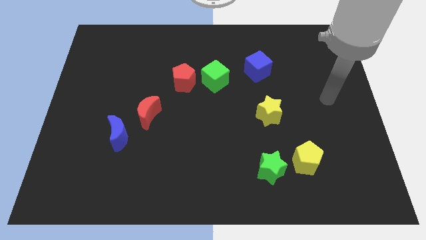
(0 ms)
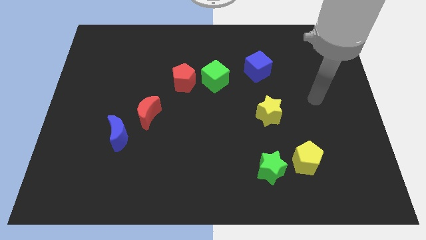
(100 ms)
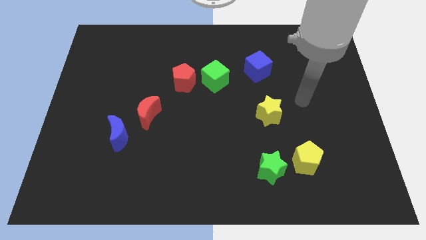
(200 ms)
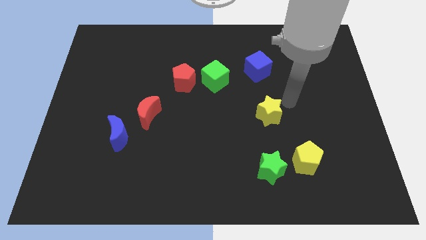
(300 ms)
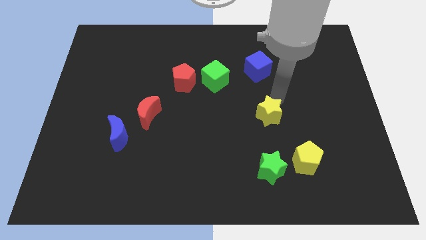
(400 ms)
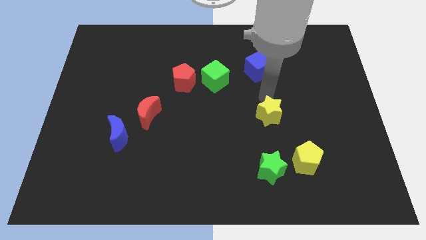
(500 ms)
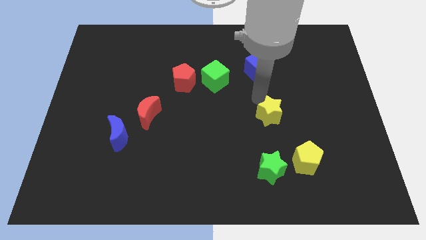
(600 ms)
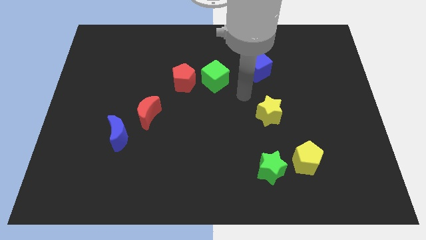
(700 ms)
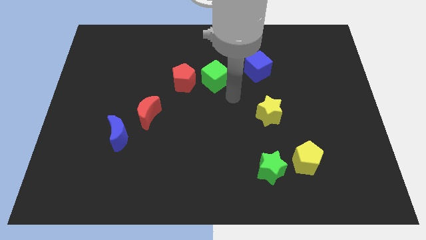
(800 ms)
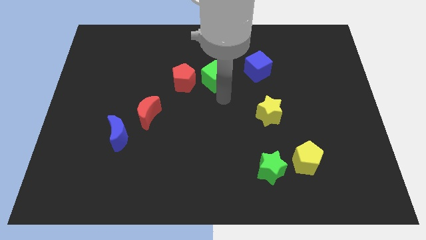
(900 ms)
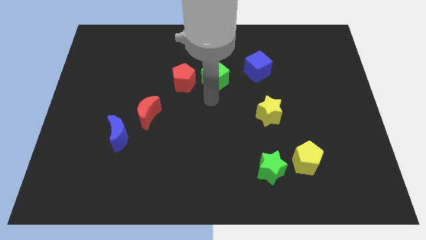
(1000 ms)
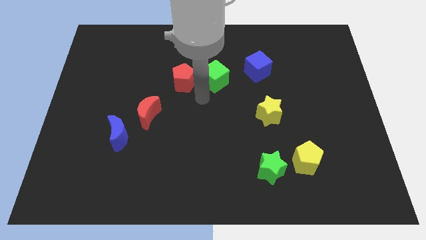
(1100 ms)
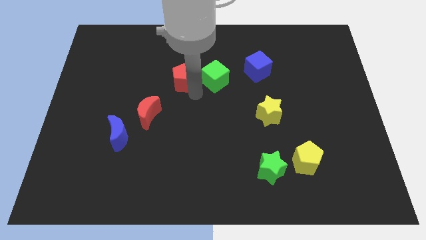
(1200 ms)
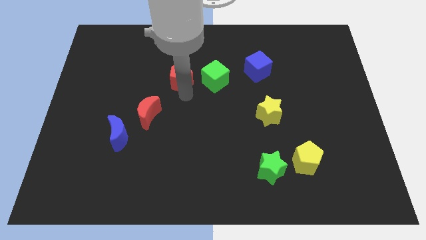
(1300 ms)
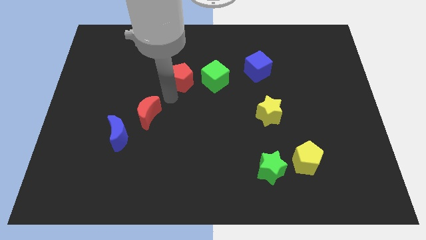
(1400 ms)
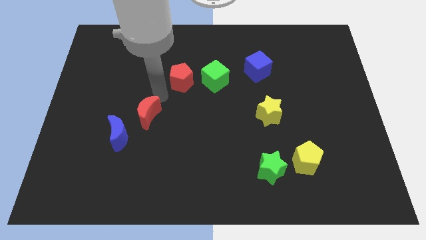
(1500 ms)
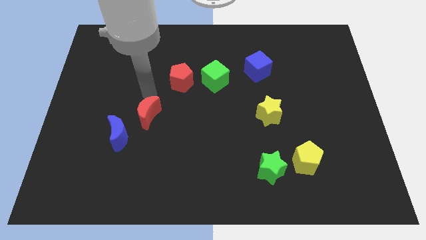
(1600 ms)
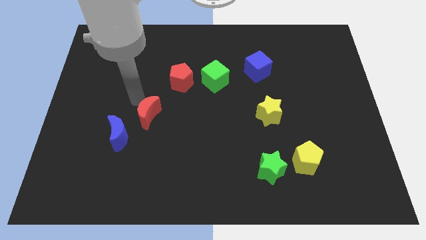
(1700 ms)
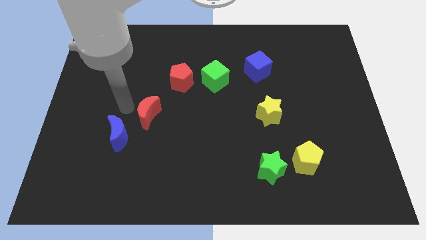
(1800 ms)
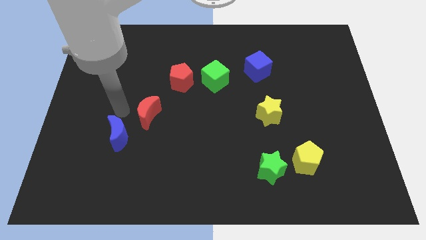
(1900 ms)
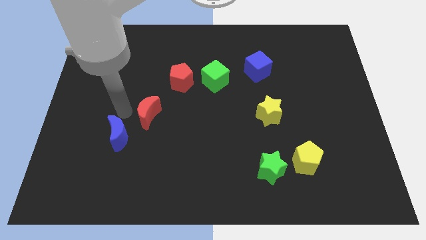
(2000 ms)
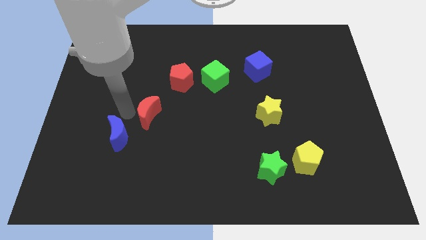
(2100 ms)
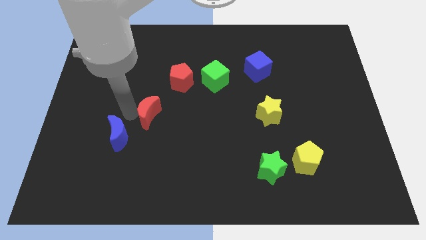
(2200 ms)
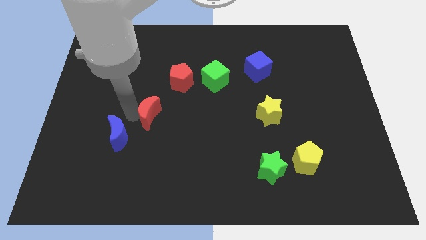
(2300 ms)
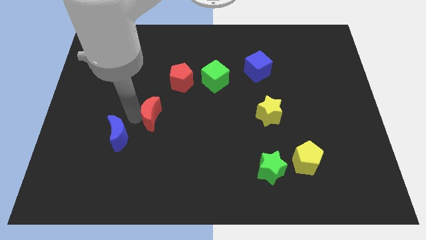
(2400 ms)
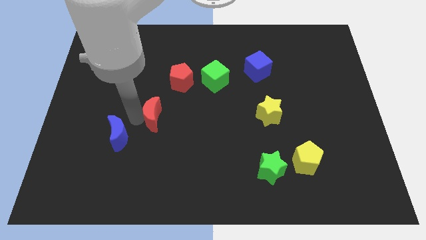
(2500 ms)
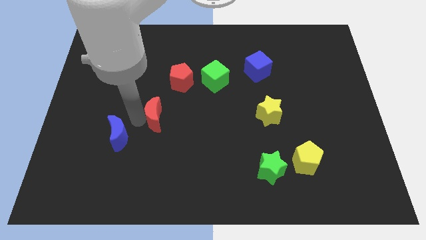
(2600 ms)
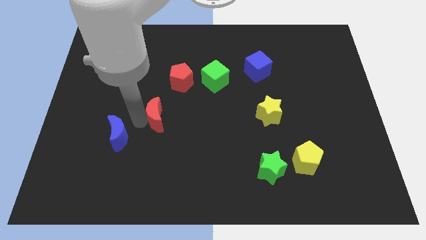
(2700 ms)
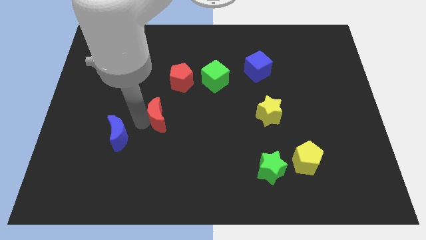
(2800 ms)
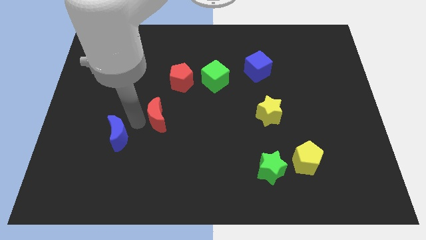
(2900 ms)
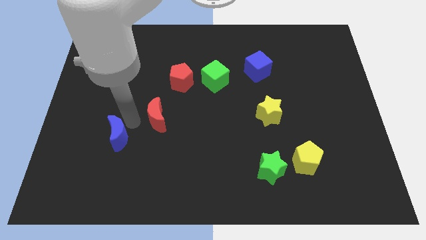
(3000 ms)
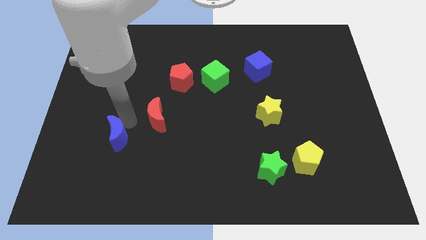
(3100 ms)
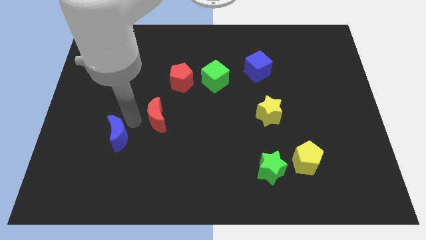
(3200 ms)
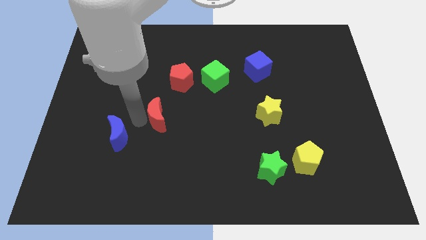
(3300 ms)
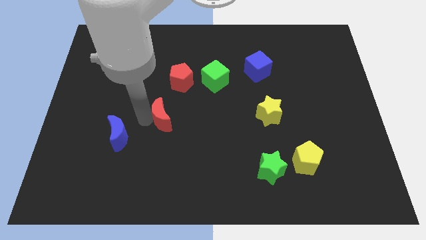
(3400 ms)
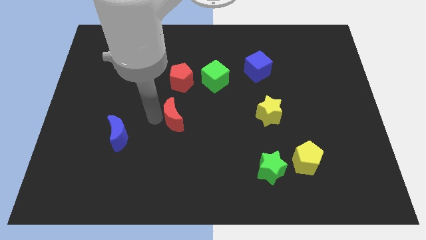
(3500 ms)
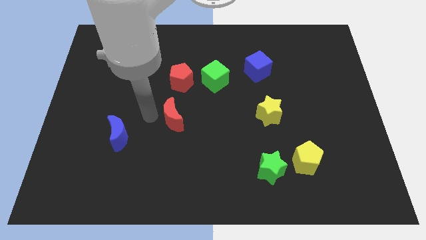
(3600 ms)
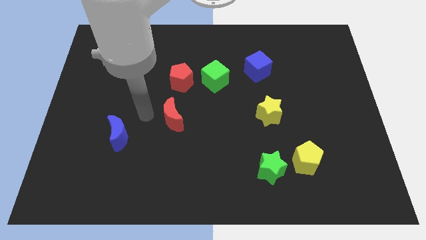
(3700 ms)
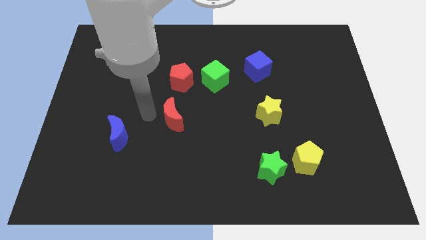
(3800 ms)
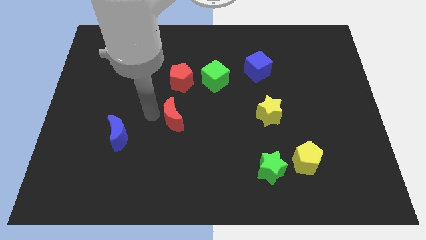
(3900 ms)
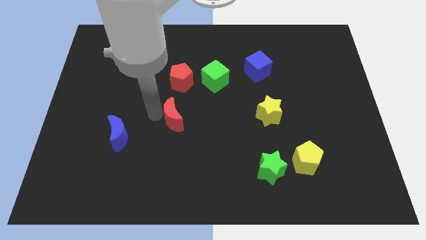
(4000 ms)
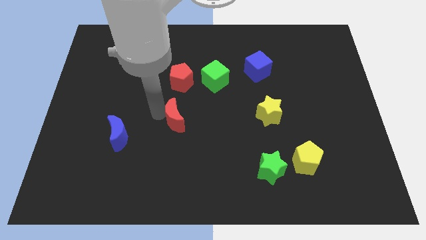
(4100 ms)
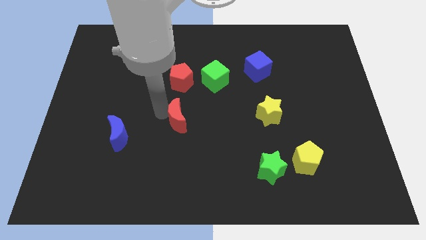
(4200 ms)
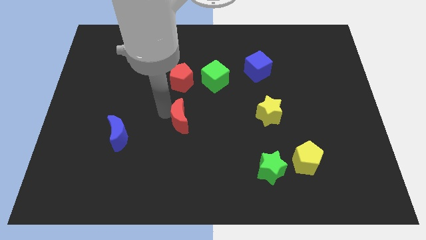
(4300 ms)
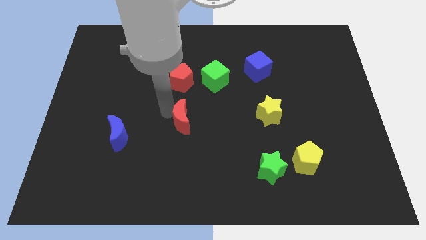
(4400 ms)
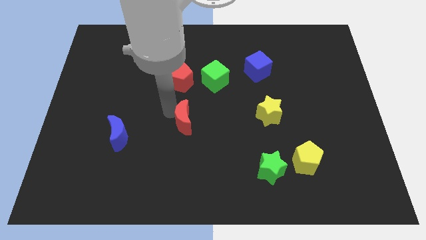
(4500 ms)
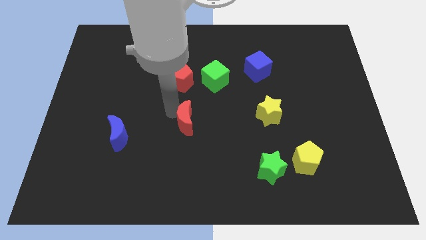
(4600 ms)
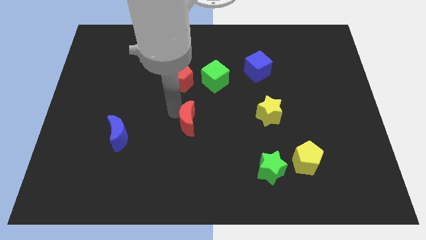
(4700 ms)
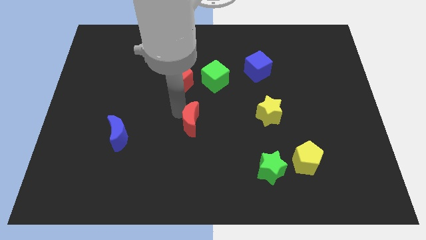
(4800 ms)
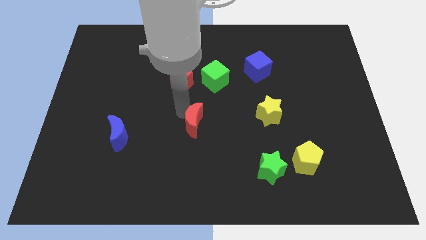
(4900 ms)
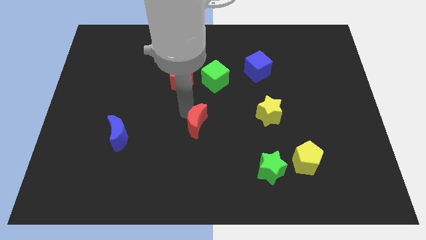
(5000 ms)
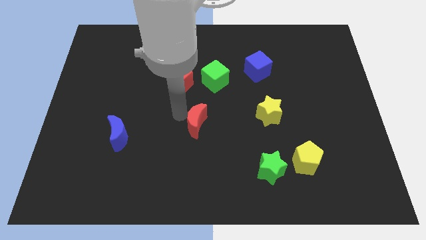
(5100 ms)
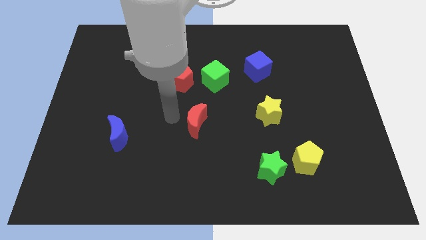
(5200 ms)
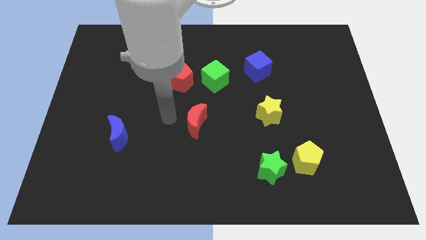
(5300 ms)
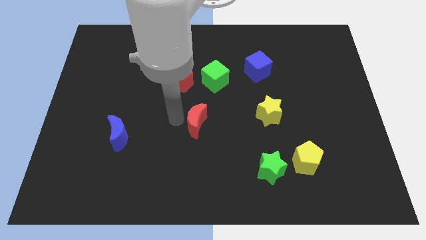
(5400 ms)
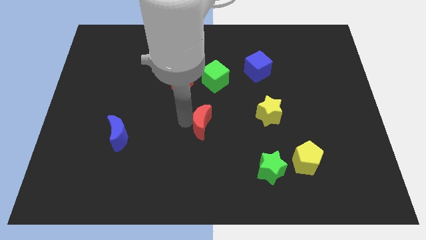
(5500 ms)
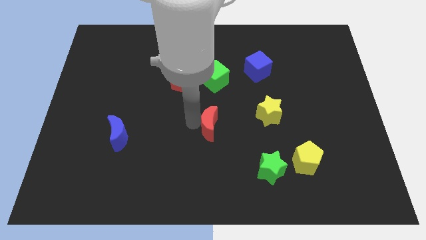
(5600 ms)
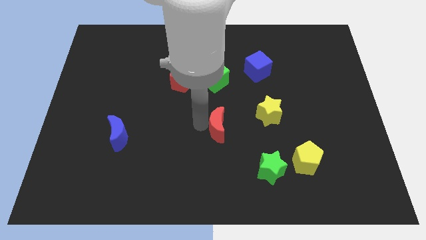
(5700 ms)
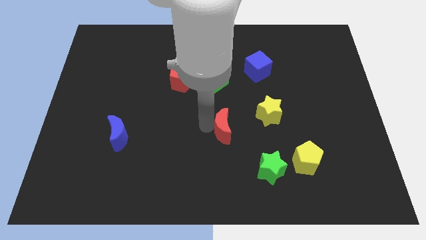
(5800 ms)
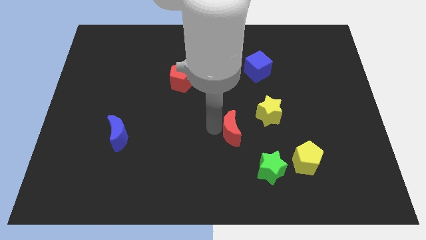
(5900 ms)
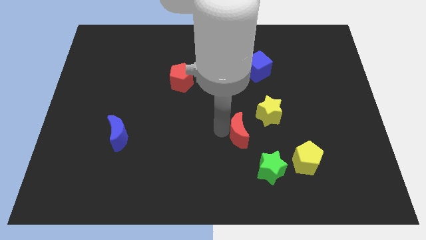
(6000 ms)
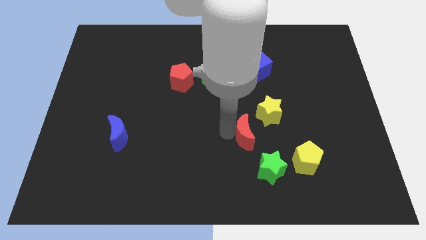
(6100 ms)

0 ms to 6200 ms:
push the red moon to the right

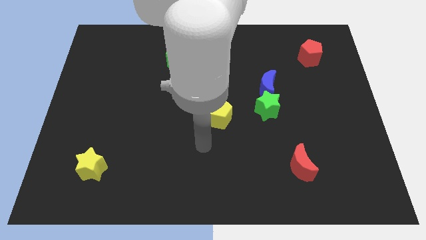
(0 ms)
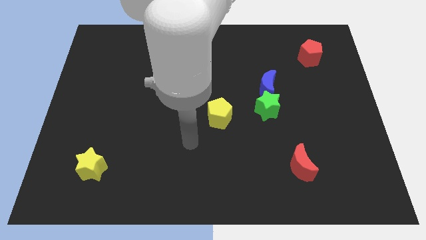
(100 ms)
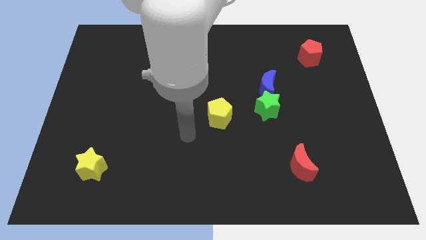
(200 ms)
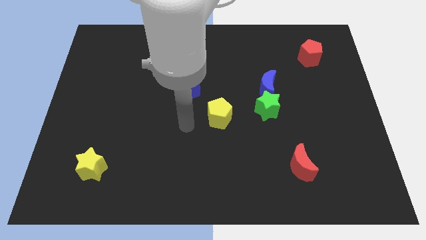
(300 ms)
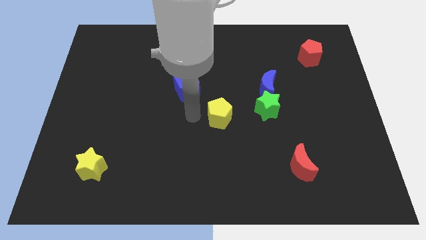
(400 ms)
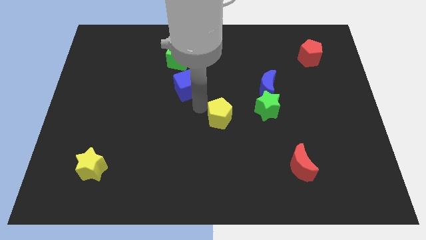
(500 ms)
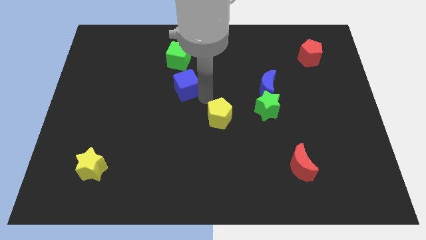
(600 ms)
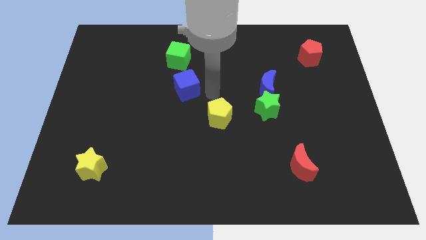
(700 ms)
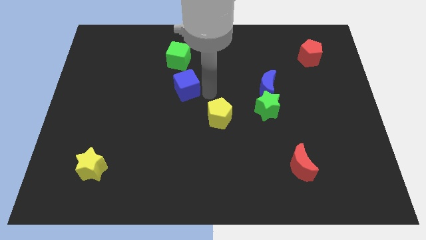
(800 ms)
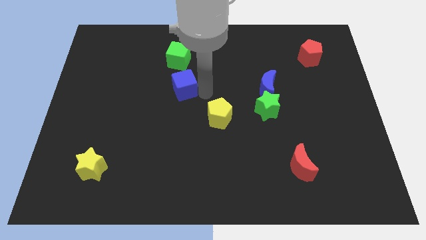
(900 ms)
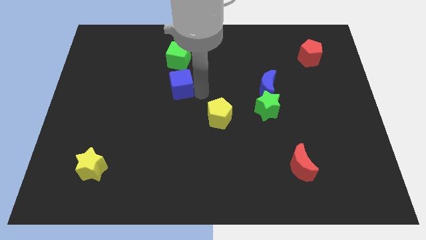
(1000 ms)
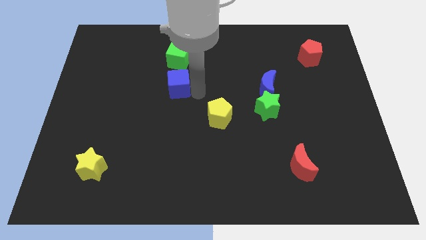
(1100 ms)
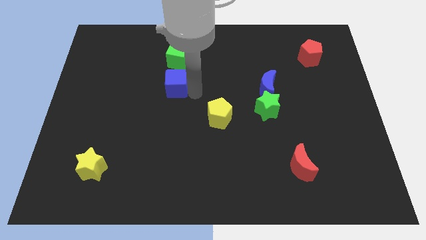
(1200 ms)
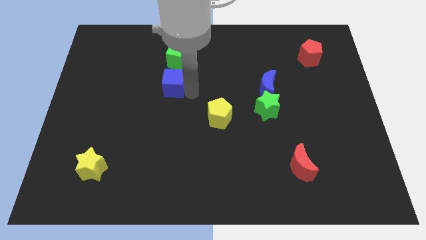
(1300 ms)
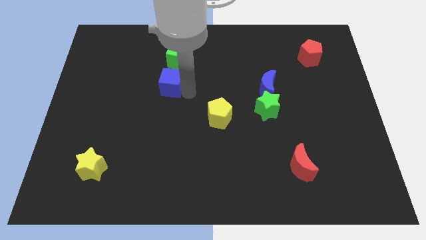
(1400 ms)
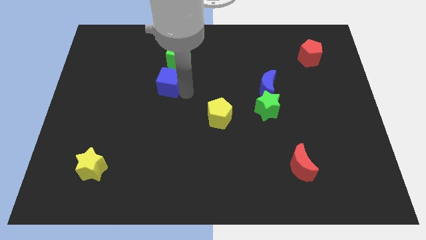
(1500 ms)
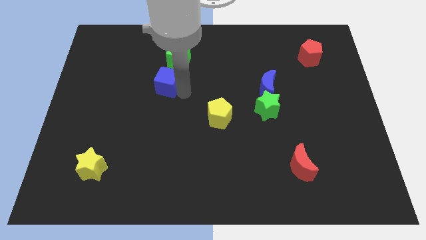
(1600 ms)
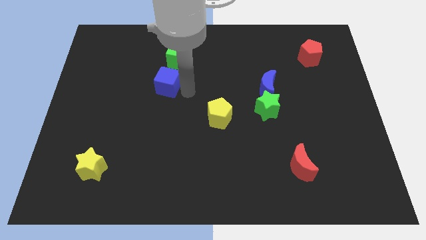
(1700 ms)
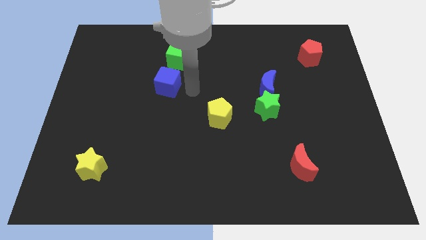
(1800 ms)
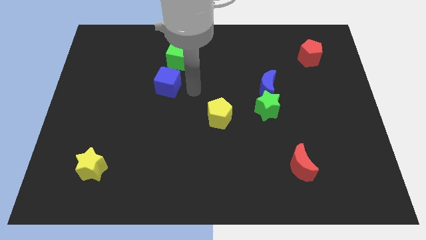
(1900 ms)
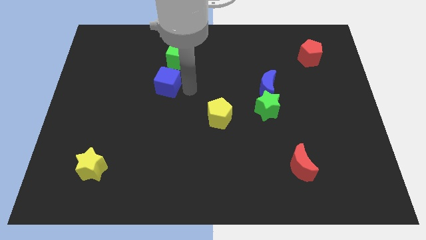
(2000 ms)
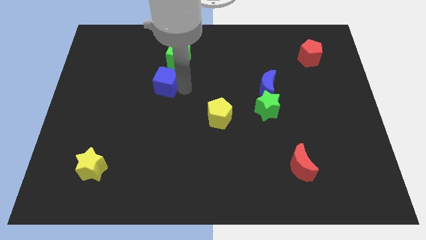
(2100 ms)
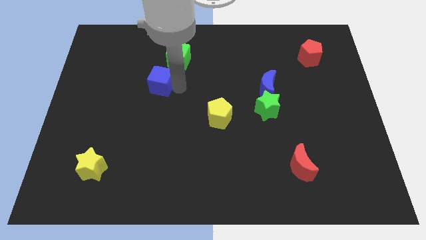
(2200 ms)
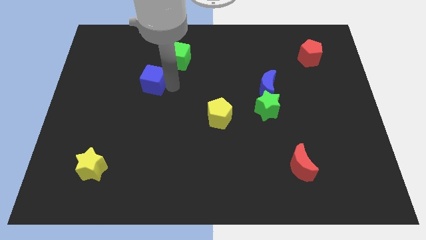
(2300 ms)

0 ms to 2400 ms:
slightly move the blue cube to the left
